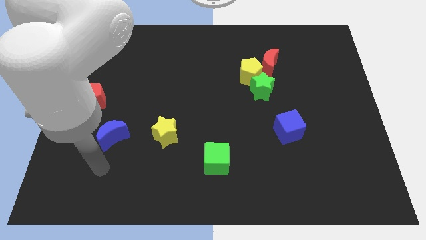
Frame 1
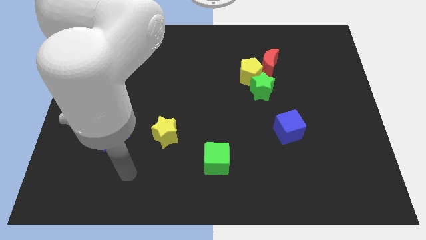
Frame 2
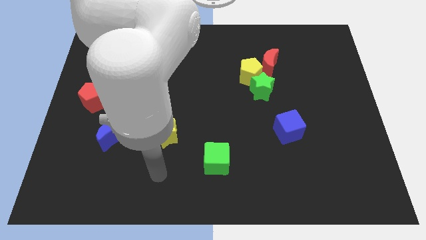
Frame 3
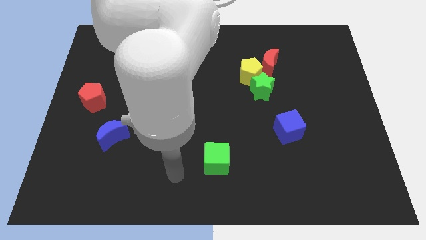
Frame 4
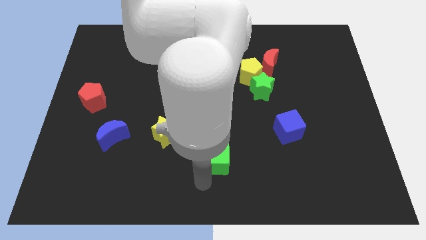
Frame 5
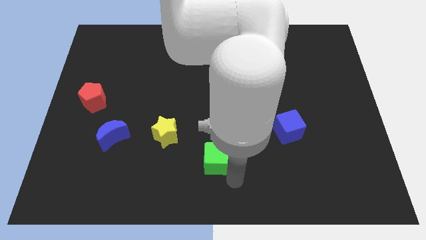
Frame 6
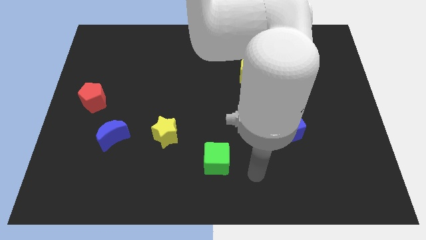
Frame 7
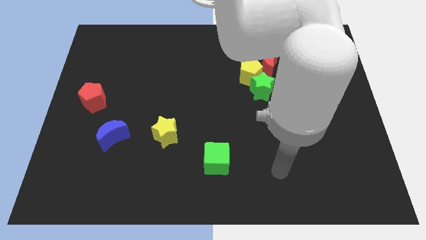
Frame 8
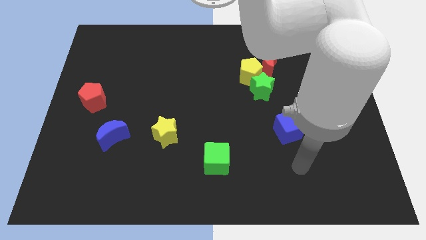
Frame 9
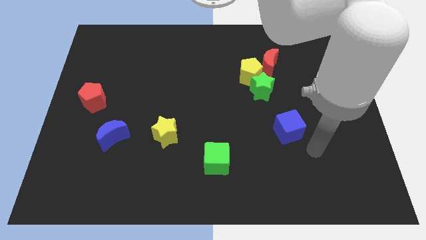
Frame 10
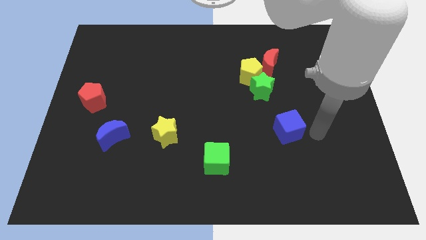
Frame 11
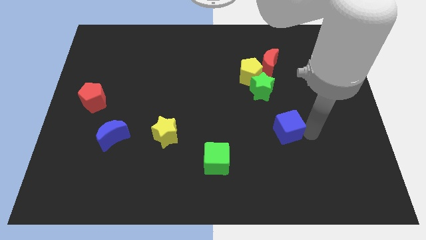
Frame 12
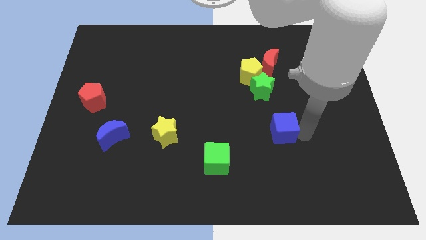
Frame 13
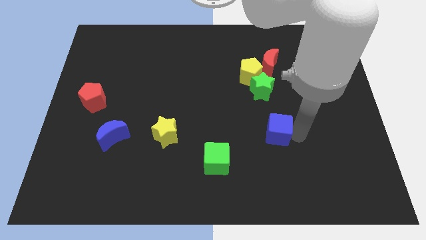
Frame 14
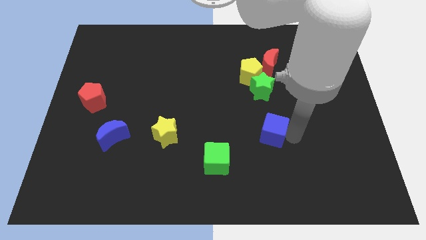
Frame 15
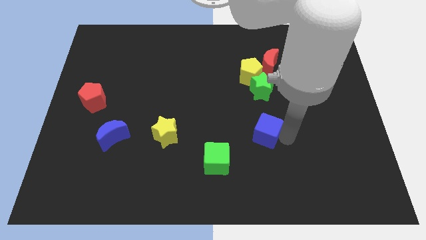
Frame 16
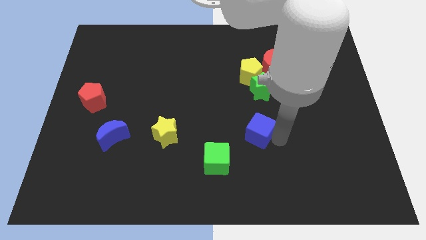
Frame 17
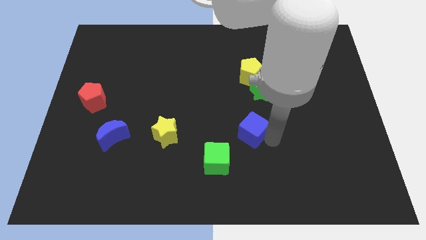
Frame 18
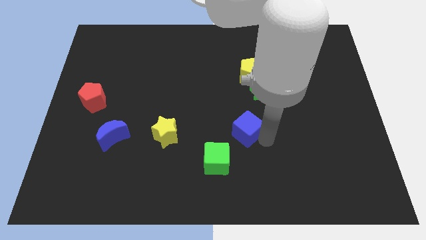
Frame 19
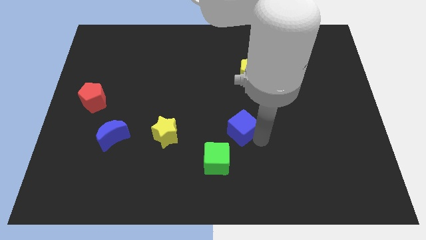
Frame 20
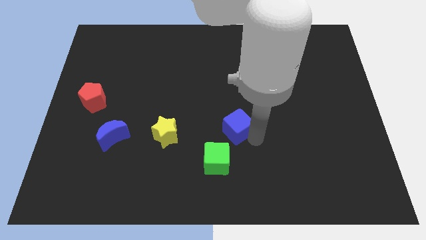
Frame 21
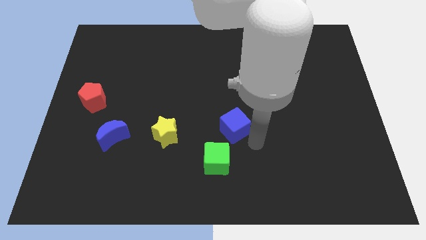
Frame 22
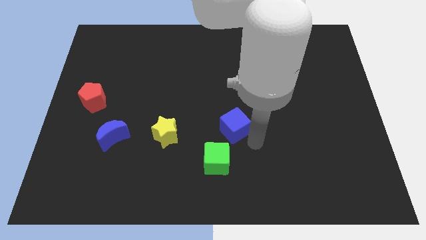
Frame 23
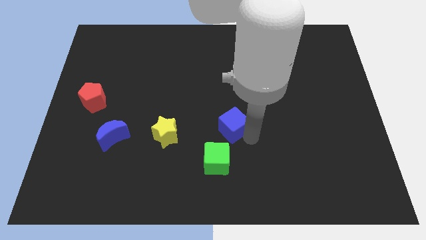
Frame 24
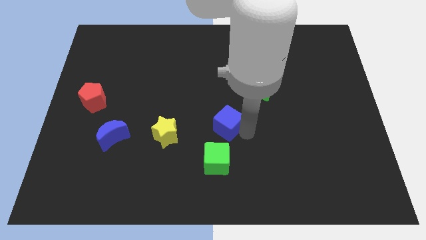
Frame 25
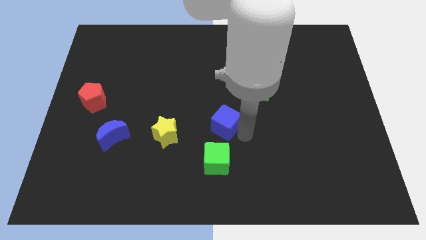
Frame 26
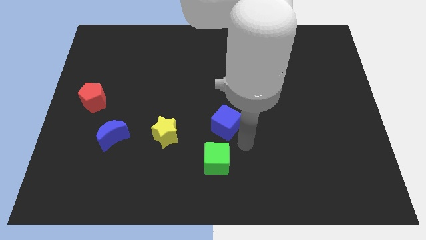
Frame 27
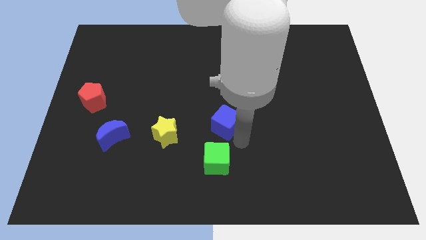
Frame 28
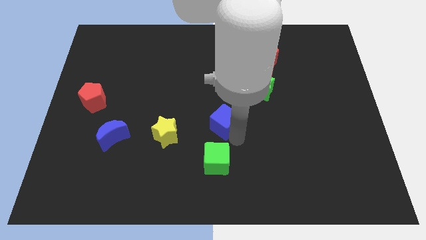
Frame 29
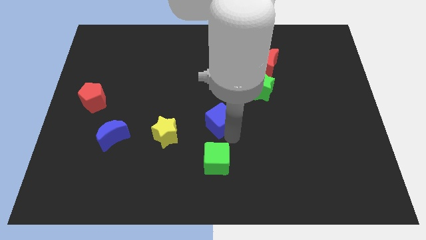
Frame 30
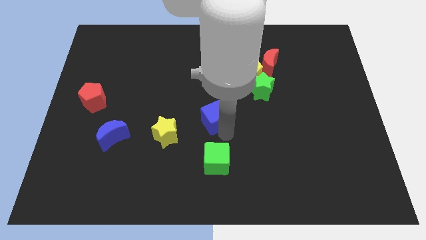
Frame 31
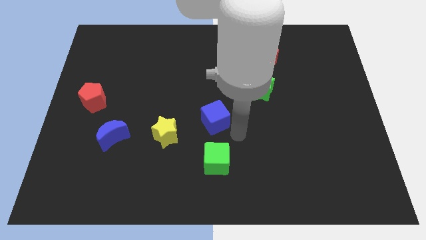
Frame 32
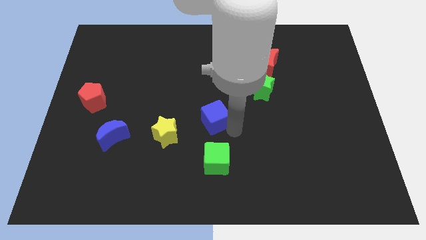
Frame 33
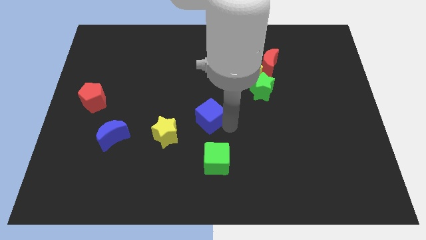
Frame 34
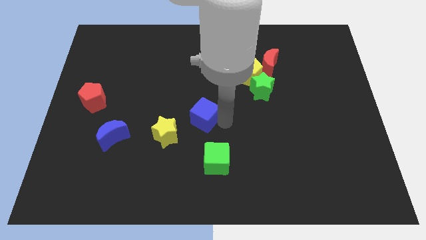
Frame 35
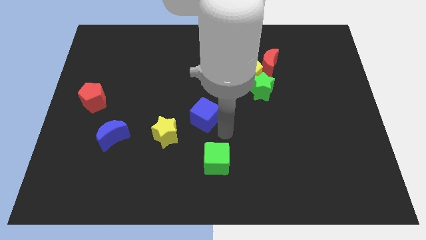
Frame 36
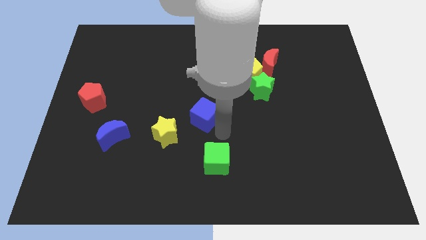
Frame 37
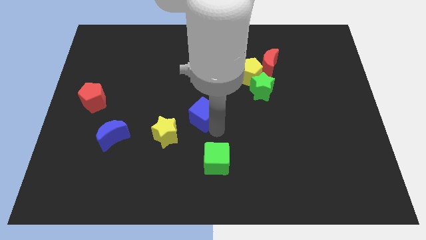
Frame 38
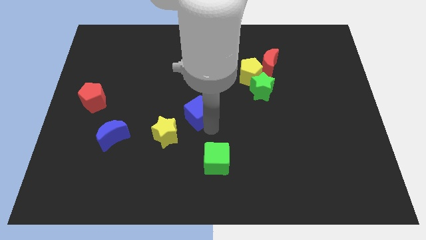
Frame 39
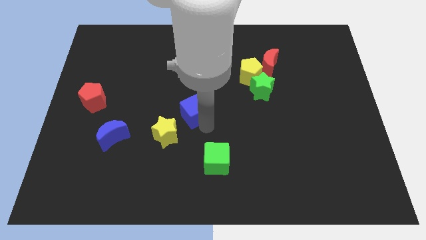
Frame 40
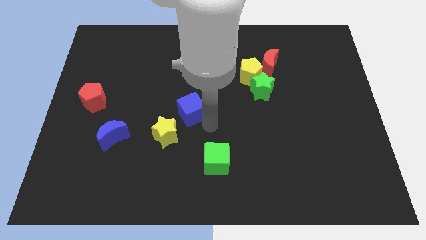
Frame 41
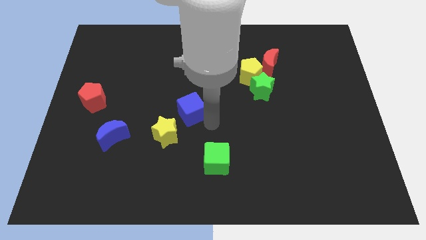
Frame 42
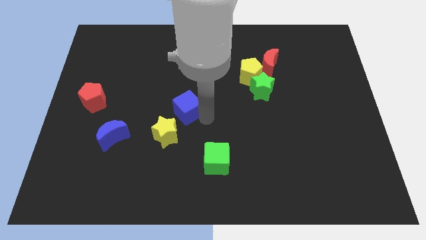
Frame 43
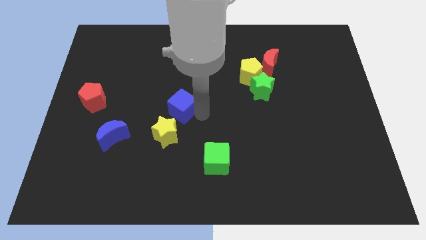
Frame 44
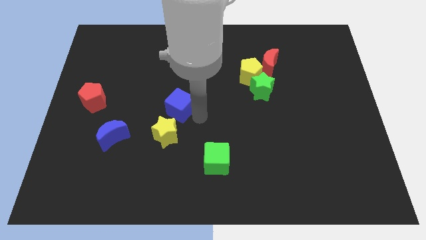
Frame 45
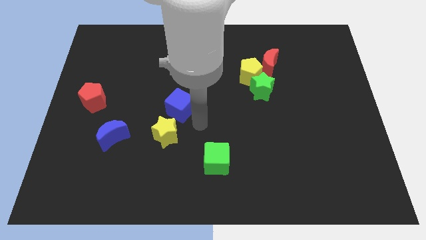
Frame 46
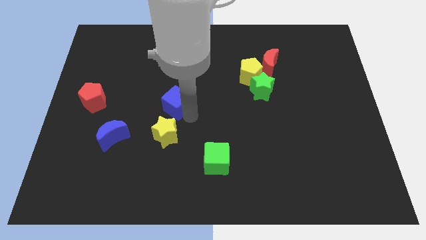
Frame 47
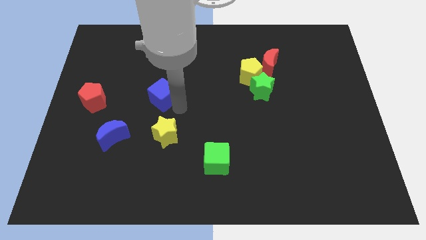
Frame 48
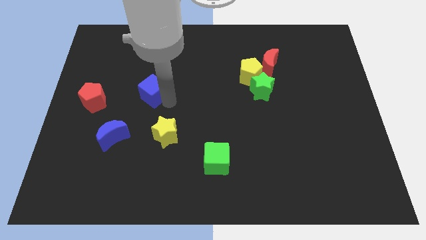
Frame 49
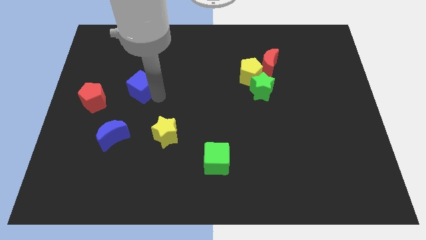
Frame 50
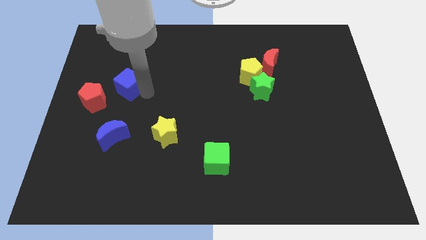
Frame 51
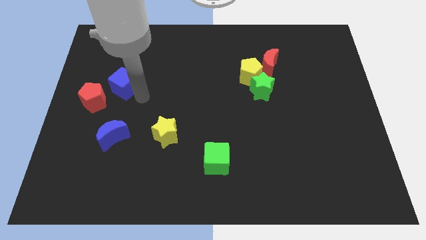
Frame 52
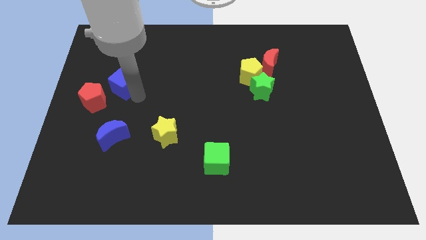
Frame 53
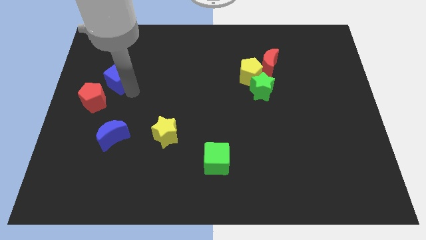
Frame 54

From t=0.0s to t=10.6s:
push the blue cube to the top of the red pentagon

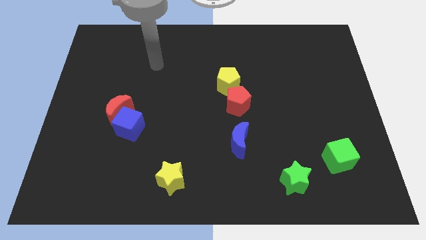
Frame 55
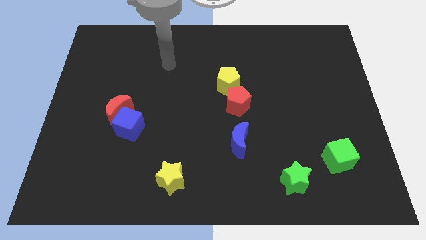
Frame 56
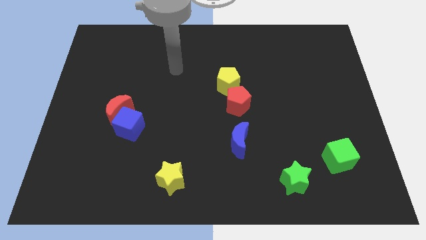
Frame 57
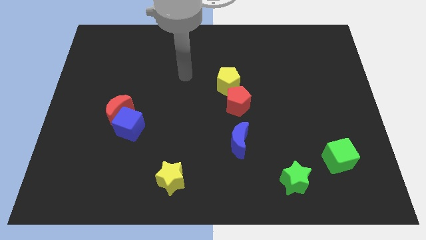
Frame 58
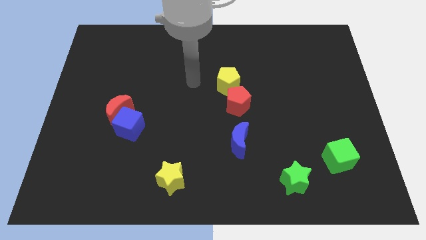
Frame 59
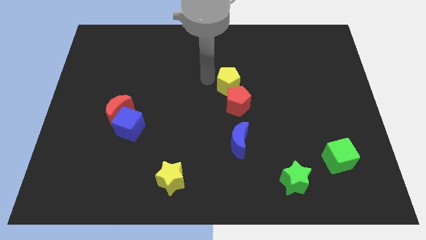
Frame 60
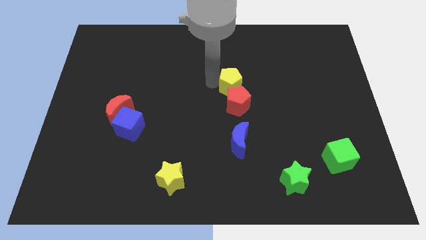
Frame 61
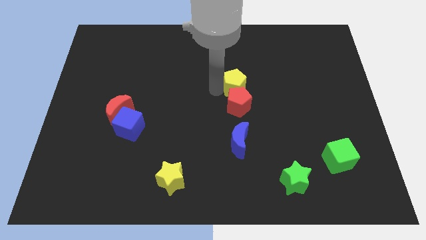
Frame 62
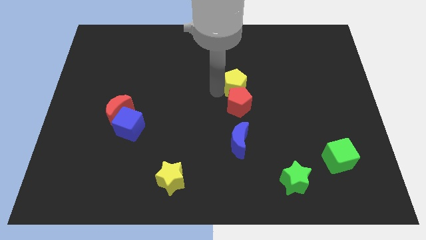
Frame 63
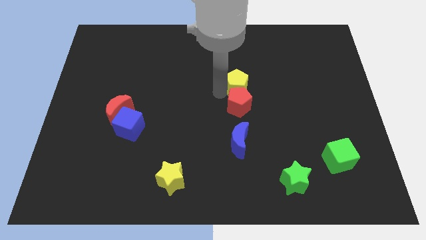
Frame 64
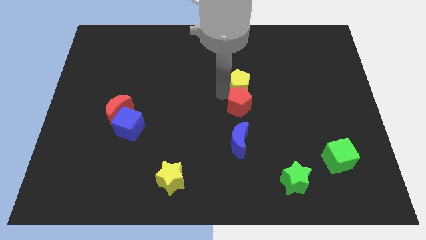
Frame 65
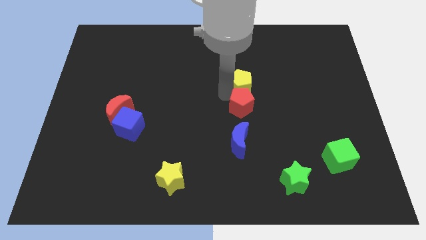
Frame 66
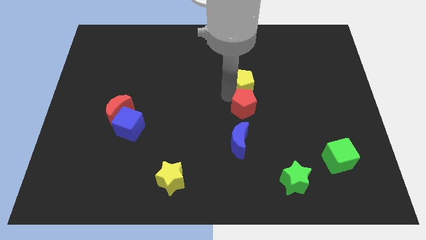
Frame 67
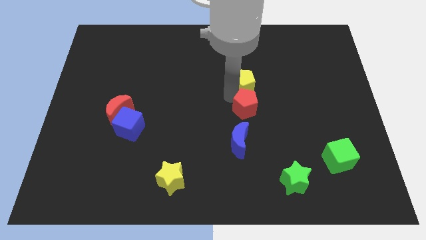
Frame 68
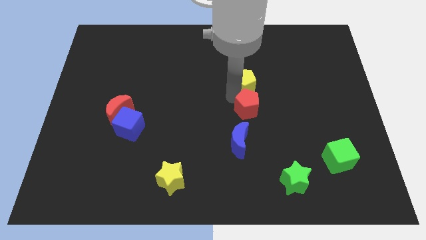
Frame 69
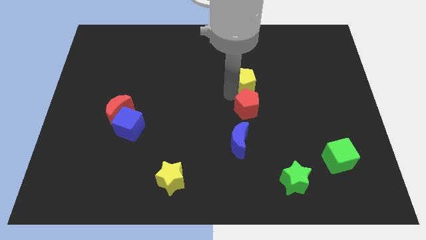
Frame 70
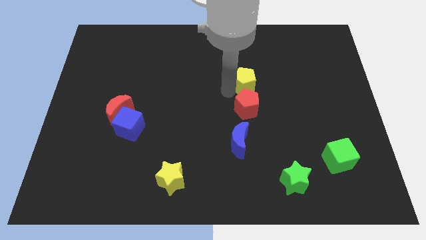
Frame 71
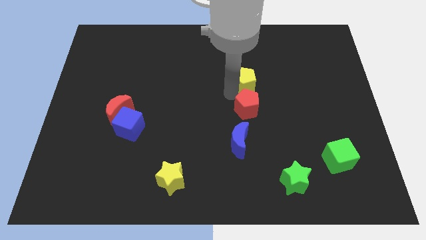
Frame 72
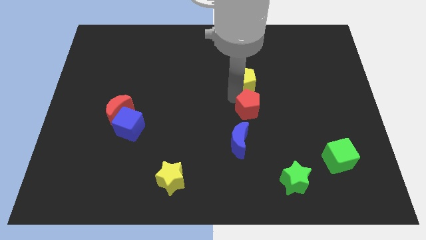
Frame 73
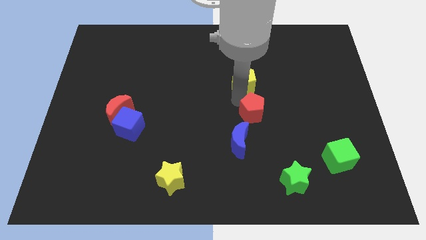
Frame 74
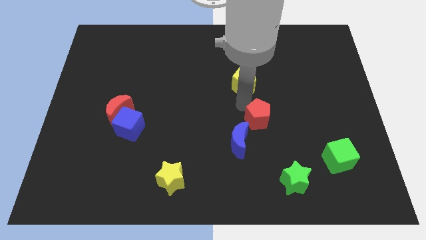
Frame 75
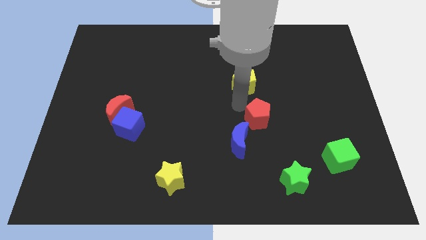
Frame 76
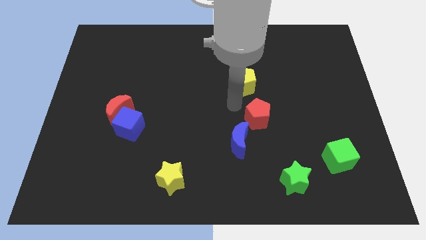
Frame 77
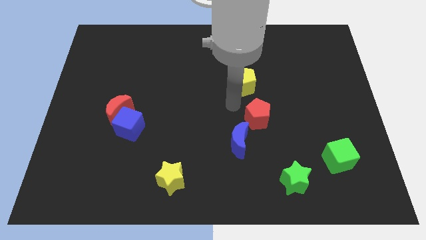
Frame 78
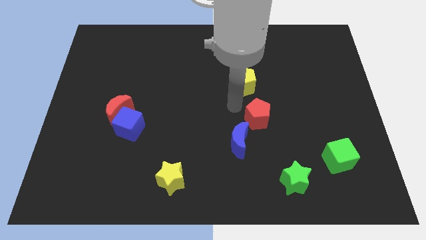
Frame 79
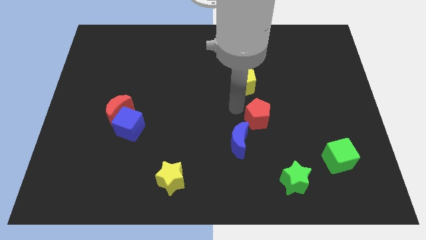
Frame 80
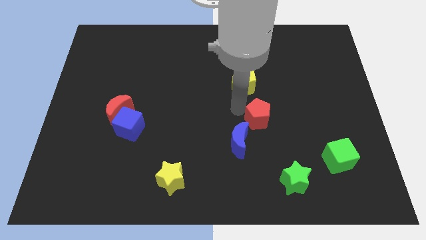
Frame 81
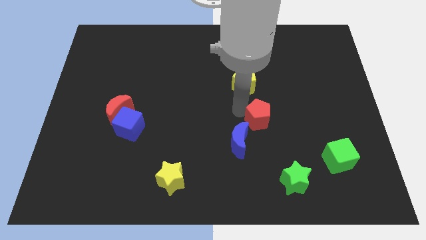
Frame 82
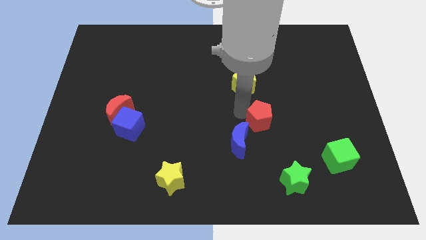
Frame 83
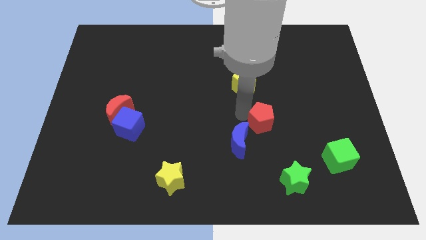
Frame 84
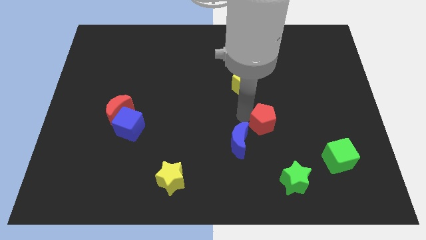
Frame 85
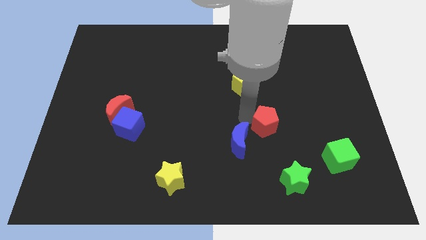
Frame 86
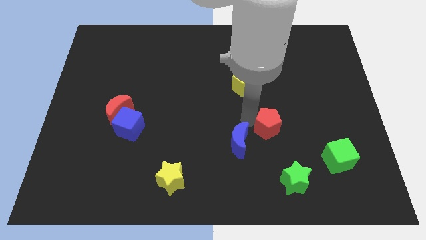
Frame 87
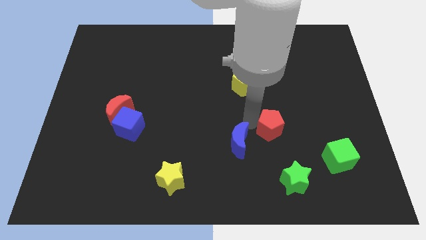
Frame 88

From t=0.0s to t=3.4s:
put the red pentagon to the top of the green star
